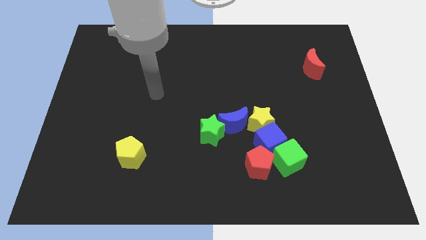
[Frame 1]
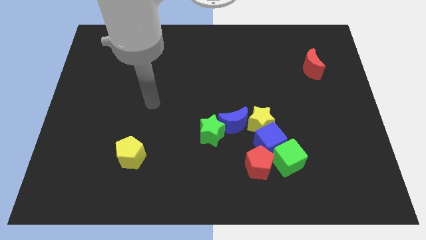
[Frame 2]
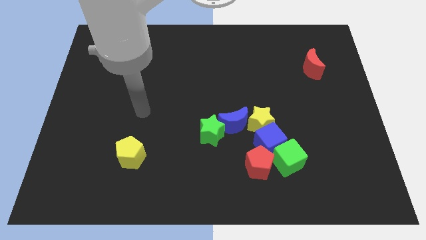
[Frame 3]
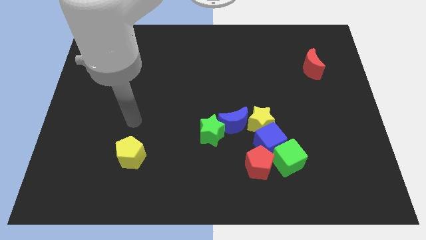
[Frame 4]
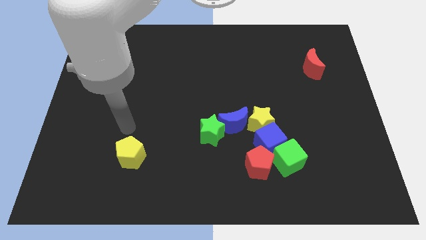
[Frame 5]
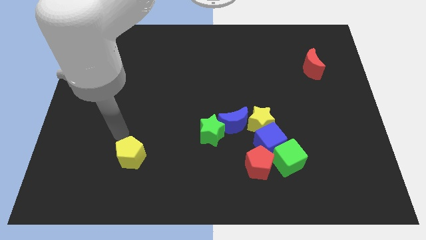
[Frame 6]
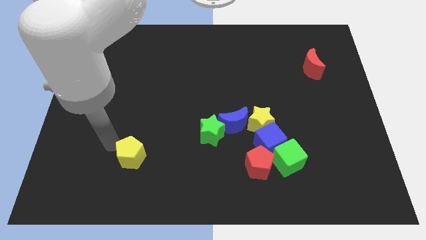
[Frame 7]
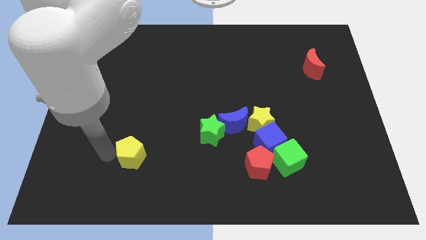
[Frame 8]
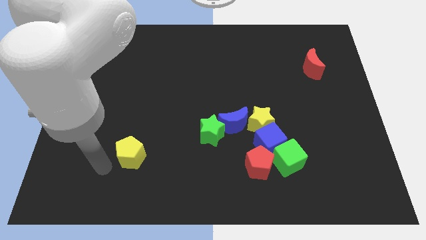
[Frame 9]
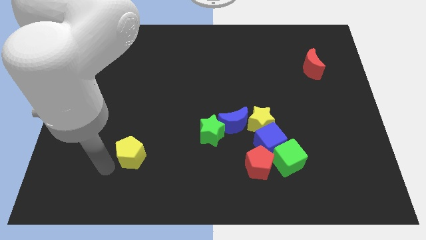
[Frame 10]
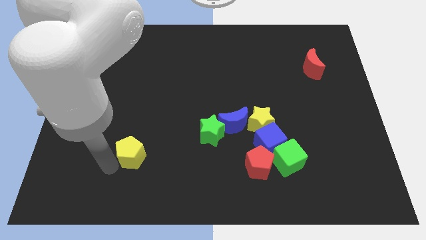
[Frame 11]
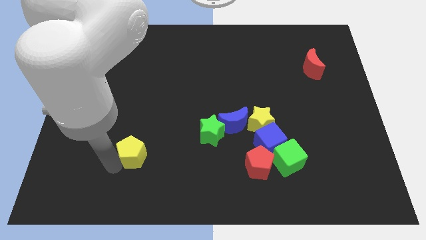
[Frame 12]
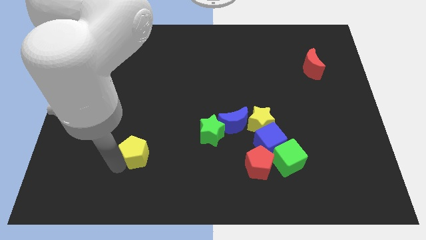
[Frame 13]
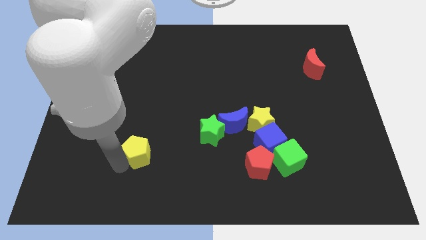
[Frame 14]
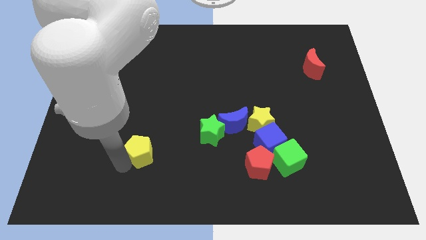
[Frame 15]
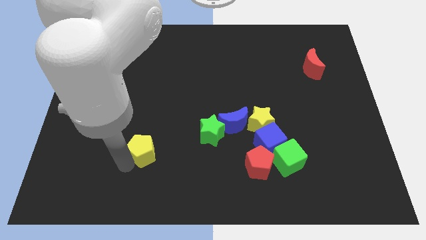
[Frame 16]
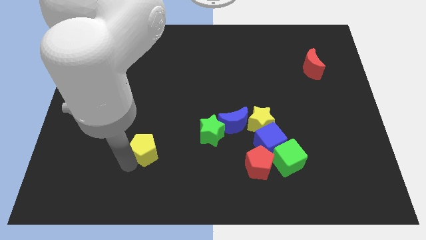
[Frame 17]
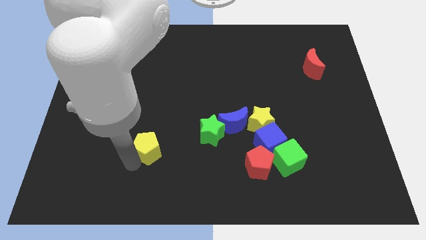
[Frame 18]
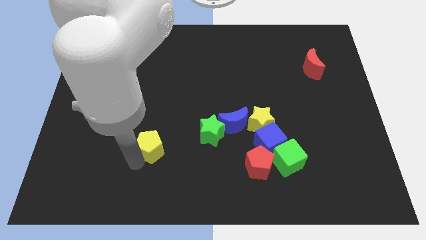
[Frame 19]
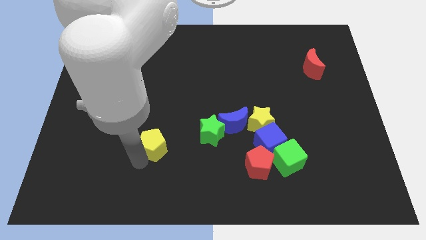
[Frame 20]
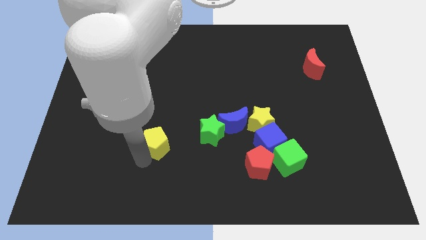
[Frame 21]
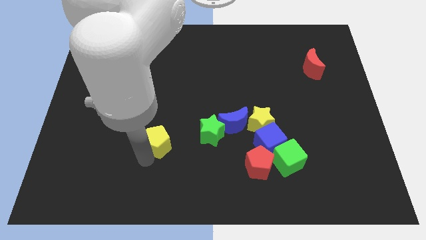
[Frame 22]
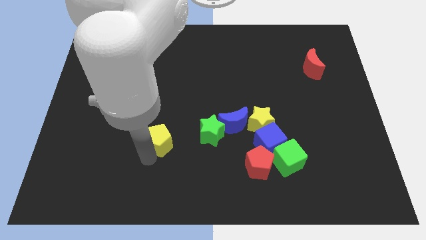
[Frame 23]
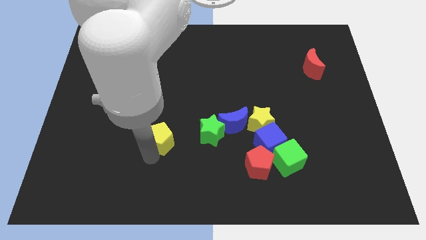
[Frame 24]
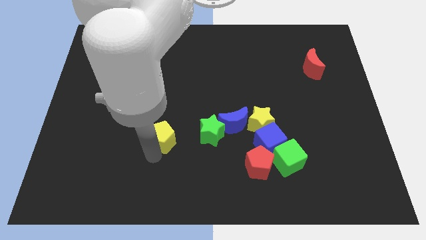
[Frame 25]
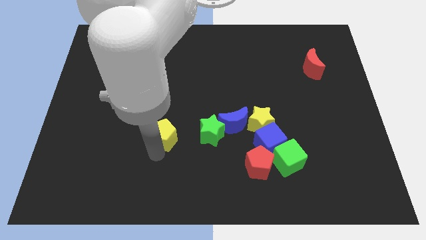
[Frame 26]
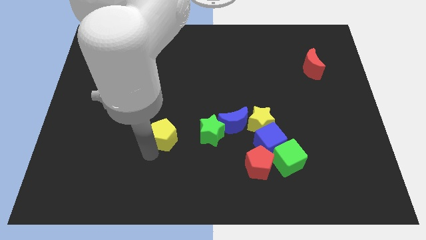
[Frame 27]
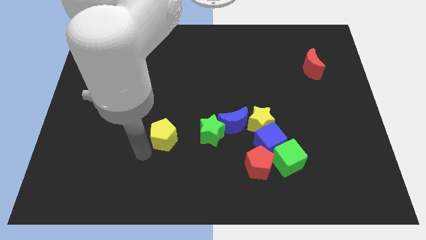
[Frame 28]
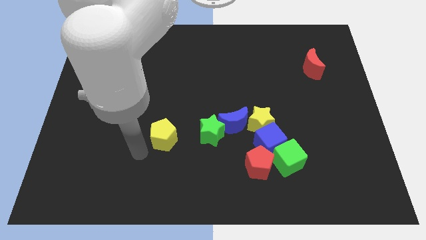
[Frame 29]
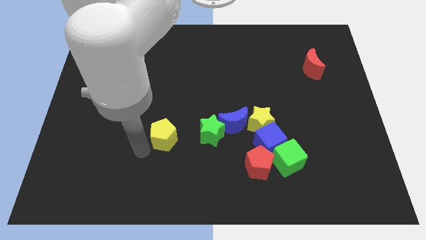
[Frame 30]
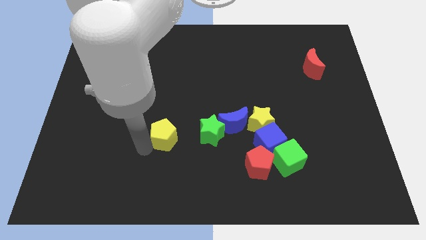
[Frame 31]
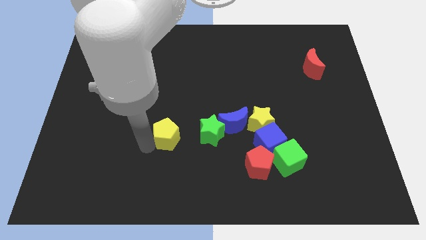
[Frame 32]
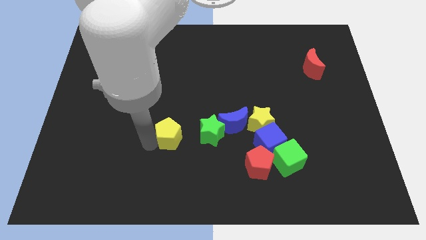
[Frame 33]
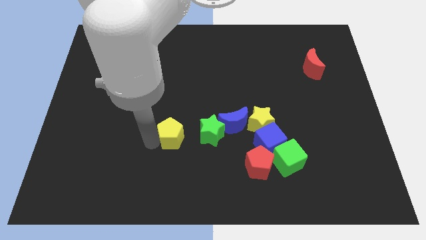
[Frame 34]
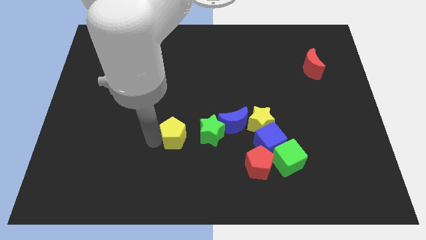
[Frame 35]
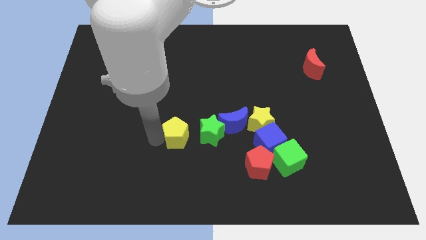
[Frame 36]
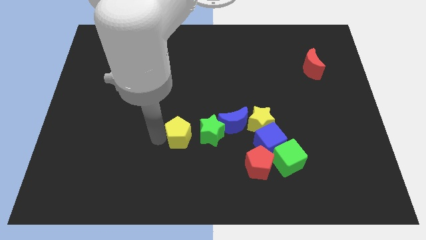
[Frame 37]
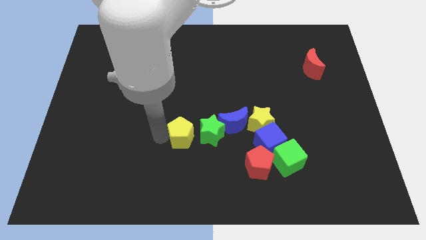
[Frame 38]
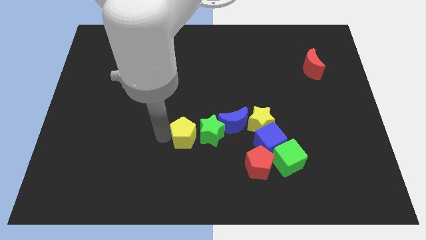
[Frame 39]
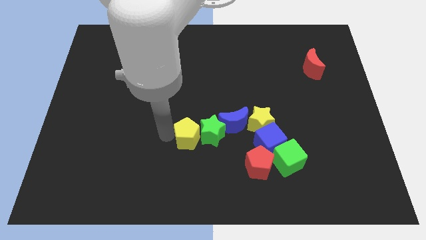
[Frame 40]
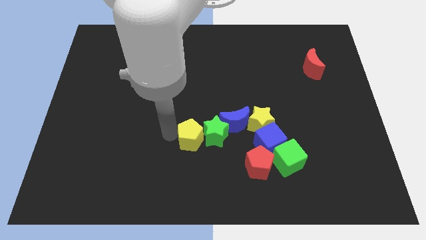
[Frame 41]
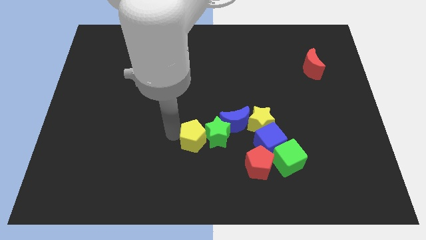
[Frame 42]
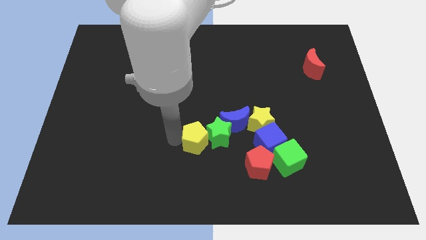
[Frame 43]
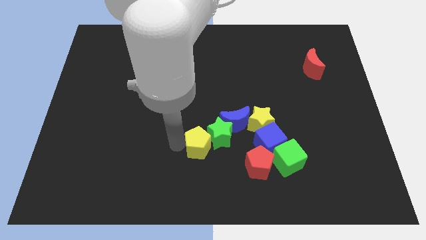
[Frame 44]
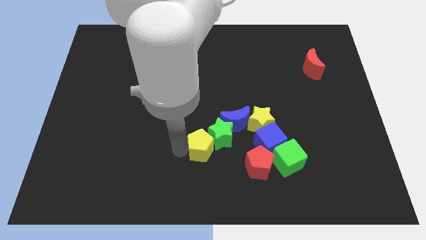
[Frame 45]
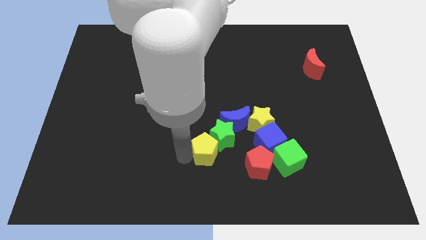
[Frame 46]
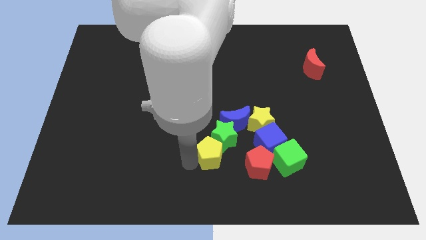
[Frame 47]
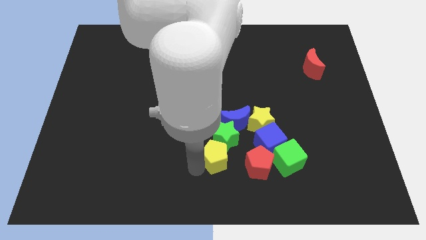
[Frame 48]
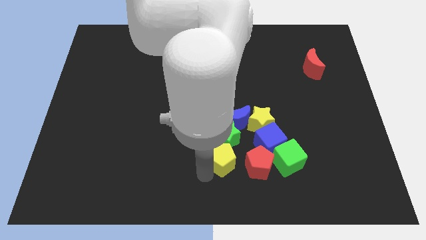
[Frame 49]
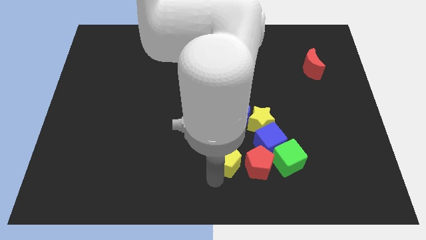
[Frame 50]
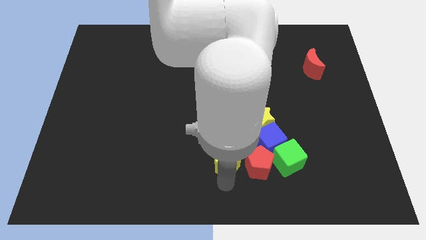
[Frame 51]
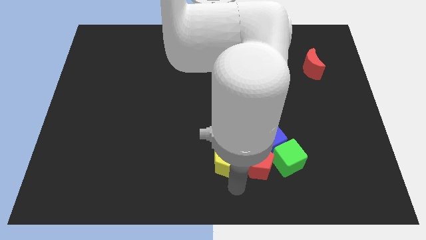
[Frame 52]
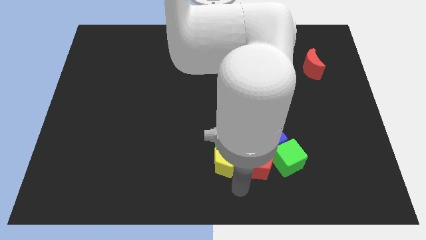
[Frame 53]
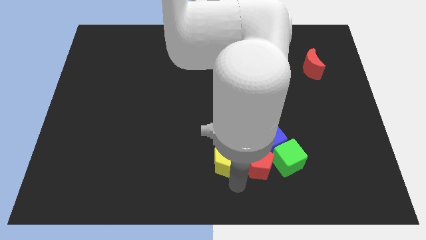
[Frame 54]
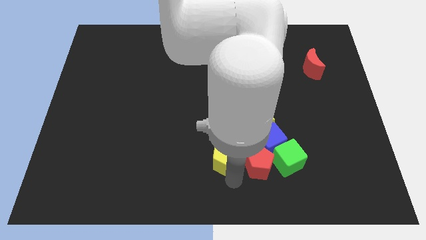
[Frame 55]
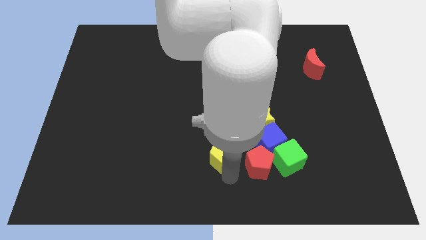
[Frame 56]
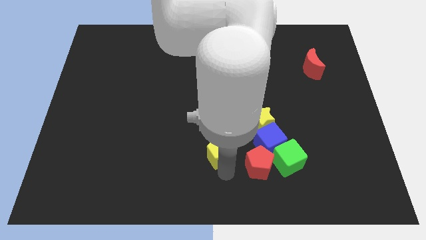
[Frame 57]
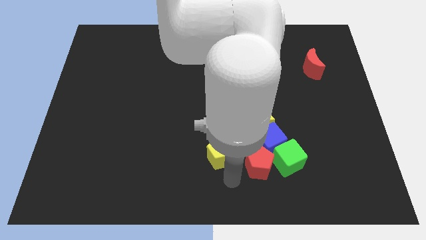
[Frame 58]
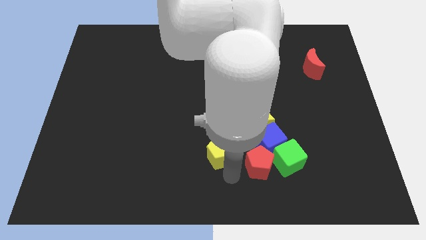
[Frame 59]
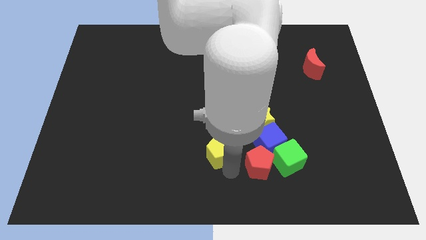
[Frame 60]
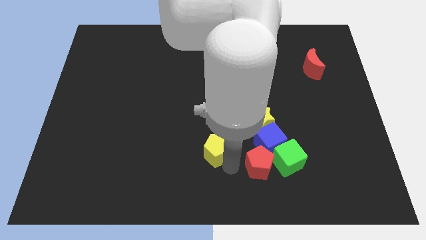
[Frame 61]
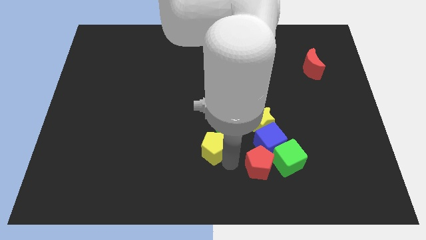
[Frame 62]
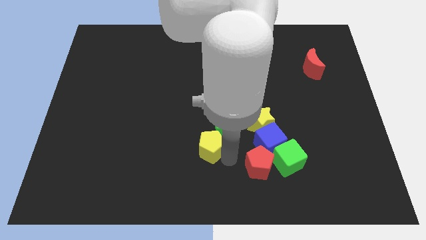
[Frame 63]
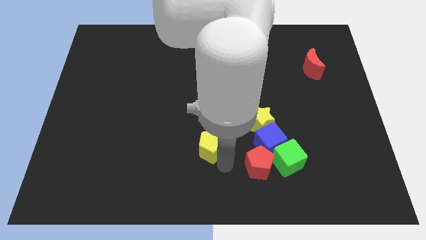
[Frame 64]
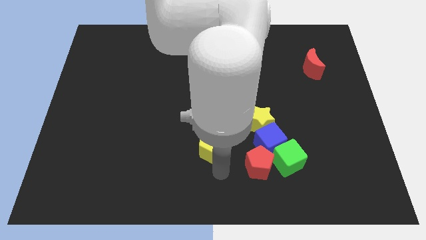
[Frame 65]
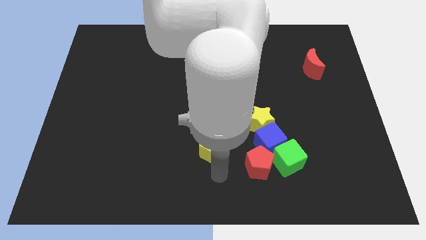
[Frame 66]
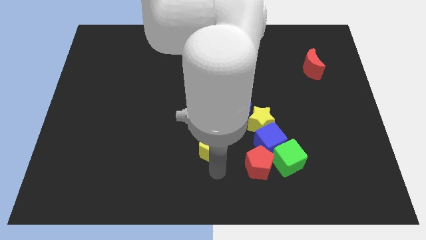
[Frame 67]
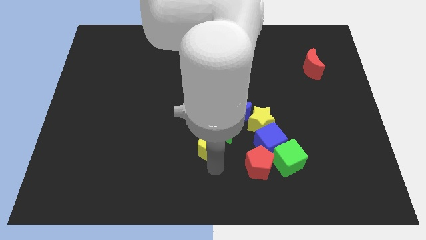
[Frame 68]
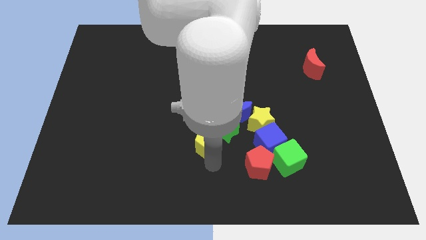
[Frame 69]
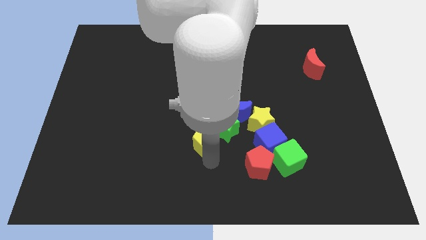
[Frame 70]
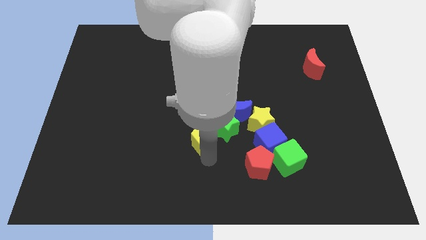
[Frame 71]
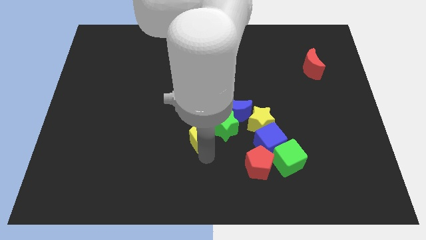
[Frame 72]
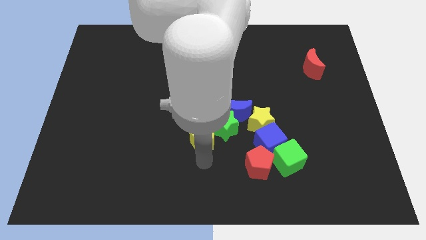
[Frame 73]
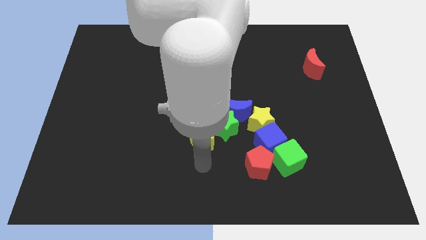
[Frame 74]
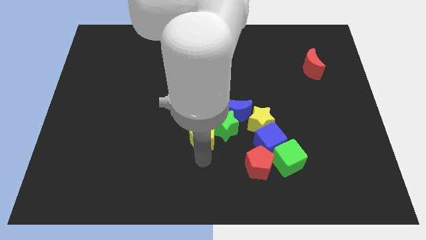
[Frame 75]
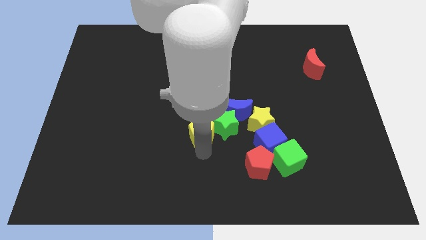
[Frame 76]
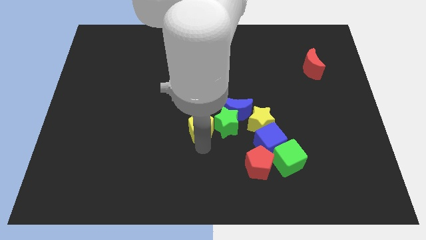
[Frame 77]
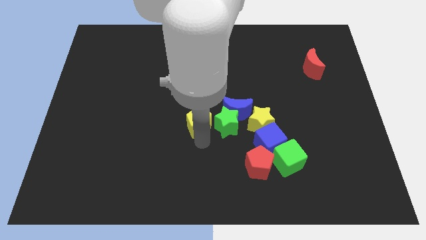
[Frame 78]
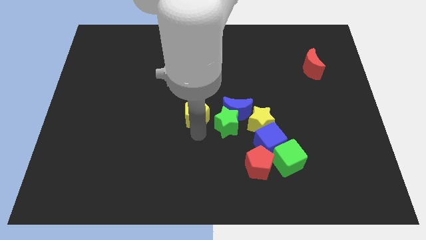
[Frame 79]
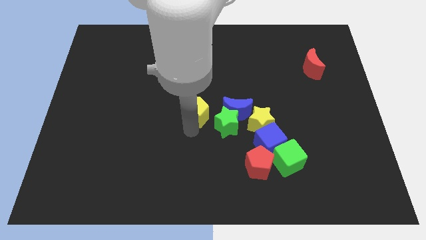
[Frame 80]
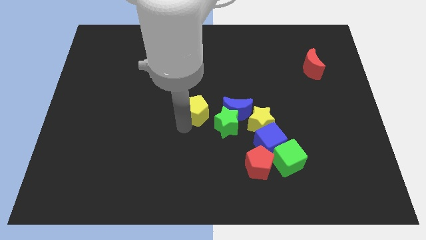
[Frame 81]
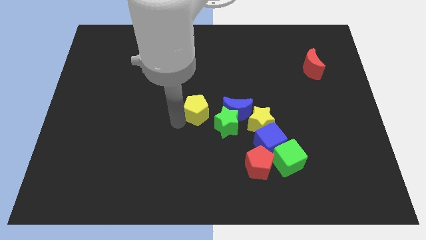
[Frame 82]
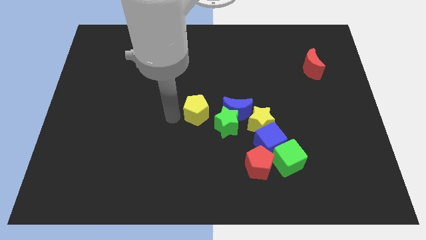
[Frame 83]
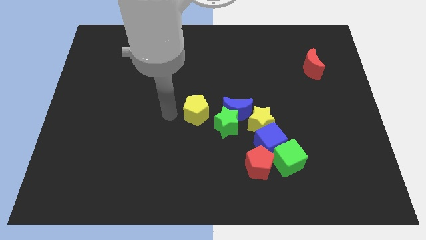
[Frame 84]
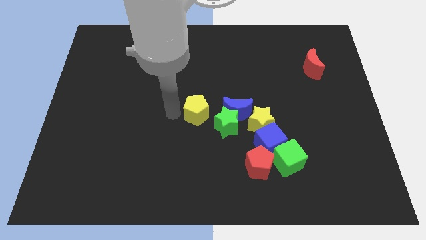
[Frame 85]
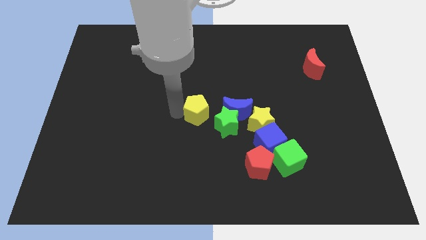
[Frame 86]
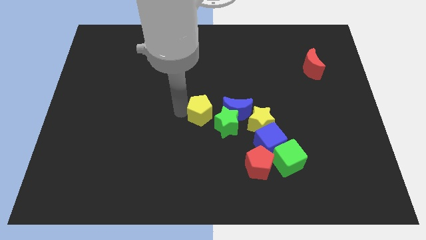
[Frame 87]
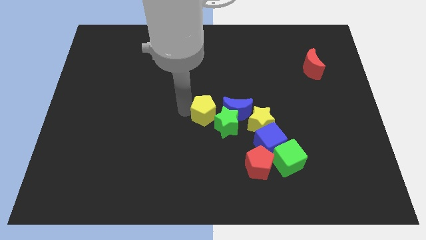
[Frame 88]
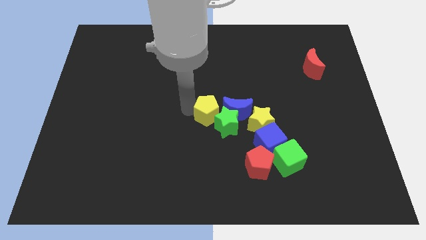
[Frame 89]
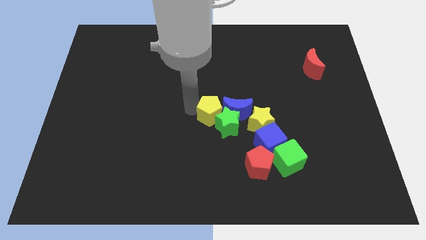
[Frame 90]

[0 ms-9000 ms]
push the yellow pentagon close to the blue moon
